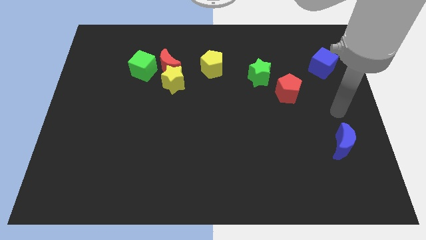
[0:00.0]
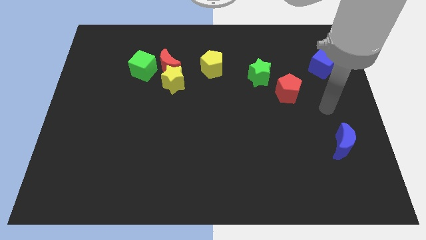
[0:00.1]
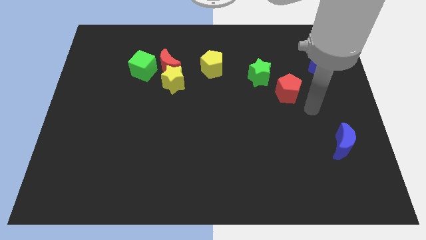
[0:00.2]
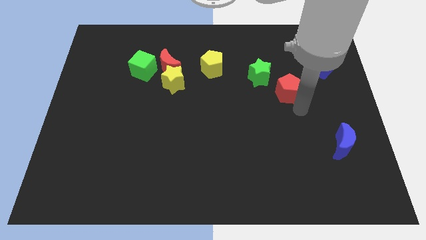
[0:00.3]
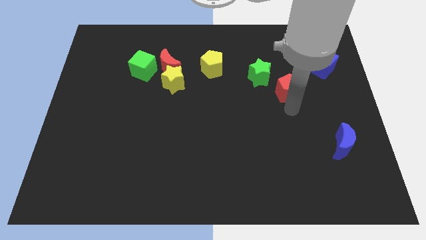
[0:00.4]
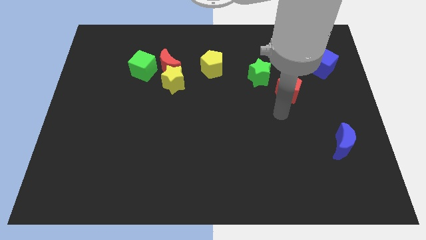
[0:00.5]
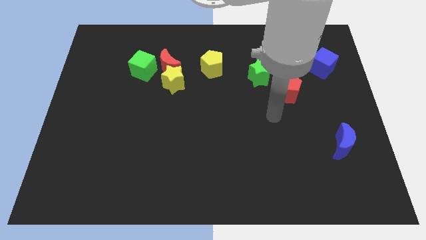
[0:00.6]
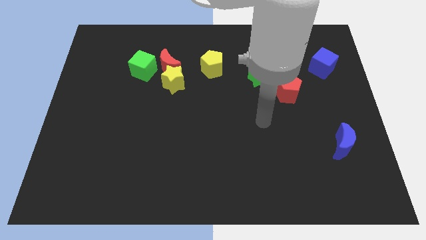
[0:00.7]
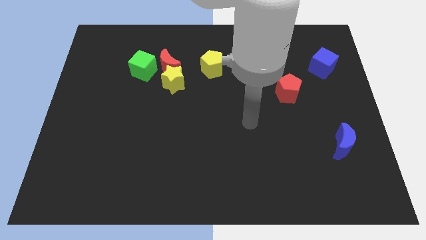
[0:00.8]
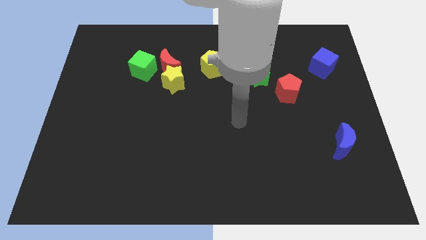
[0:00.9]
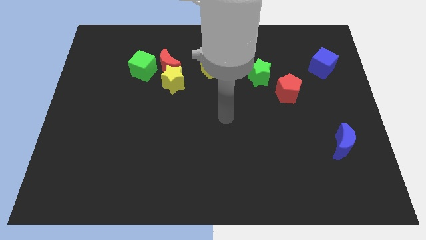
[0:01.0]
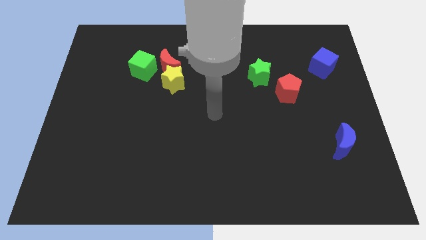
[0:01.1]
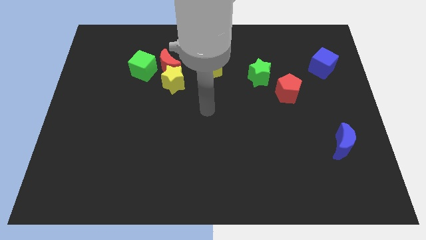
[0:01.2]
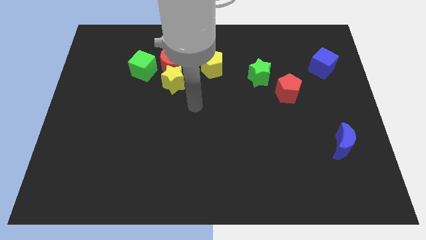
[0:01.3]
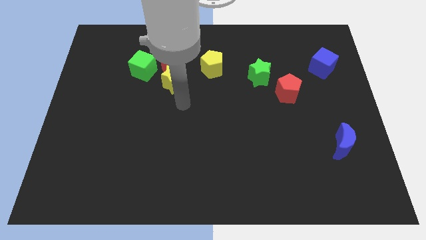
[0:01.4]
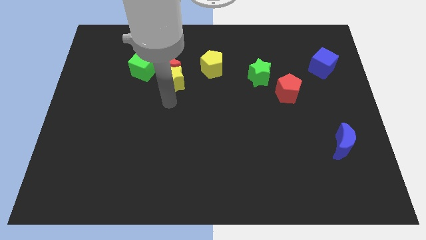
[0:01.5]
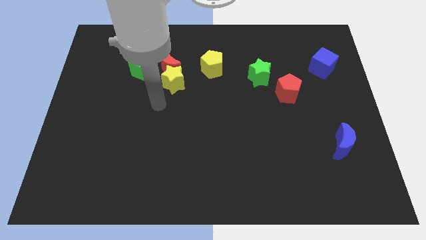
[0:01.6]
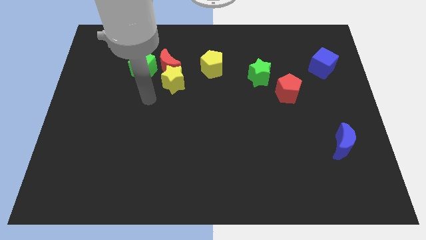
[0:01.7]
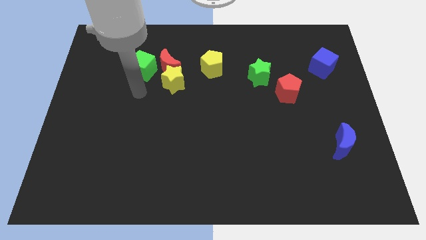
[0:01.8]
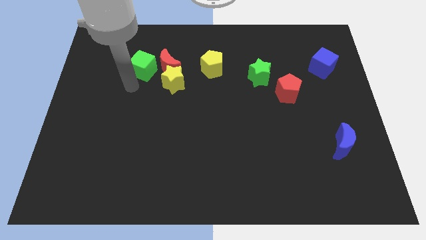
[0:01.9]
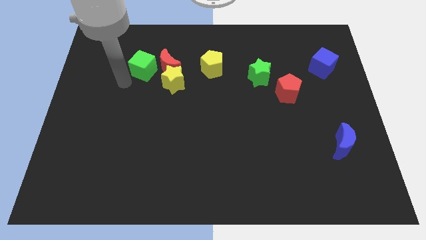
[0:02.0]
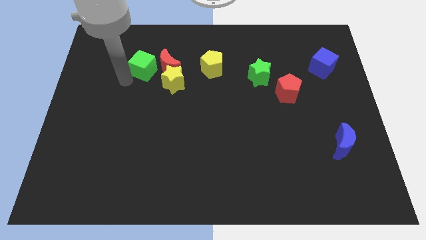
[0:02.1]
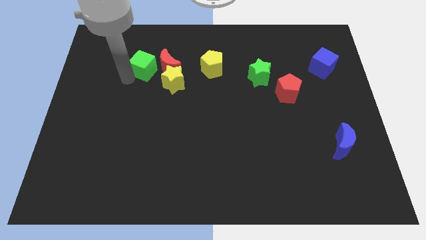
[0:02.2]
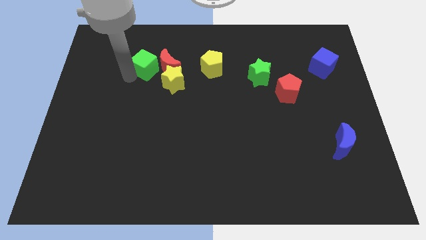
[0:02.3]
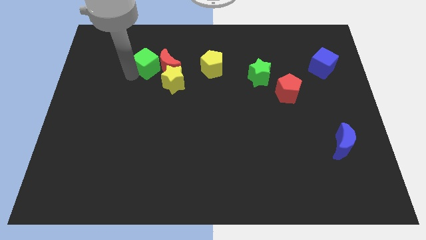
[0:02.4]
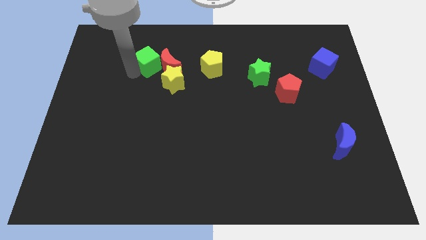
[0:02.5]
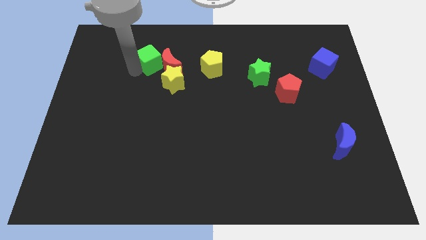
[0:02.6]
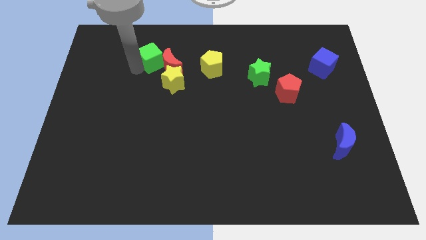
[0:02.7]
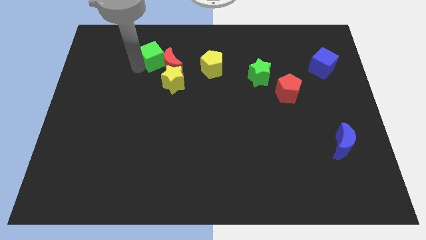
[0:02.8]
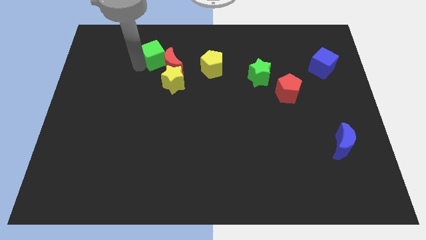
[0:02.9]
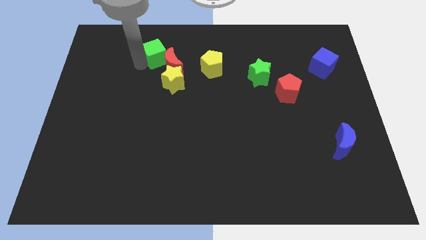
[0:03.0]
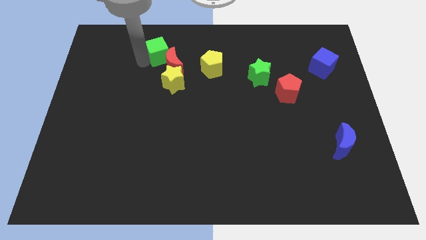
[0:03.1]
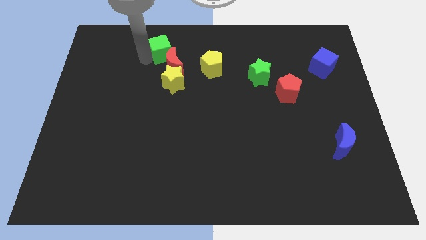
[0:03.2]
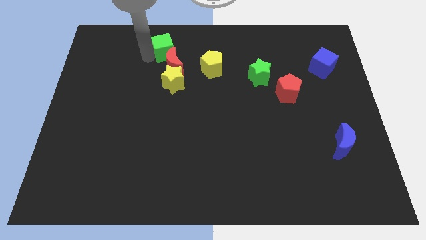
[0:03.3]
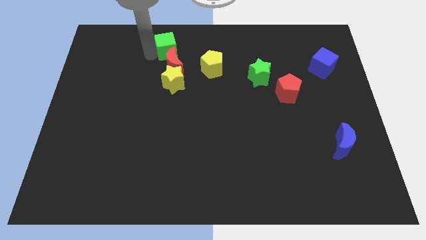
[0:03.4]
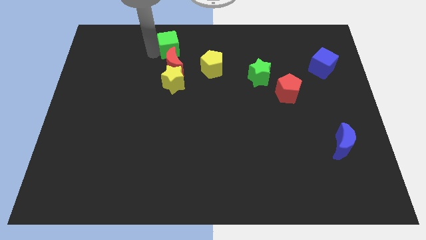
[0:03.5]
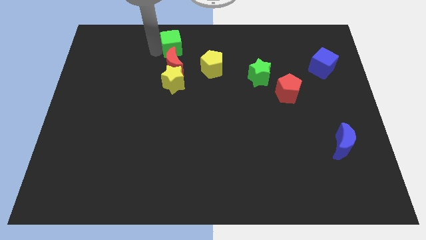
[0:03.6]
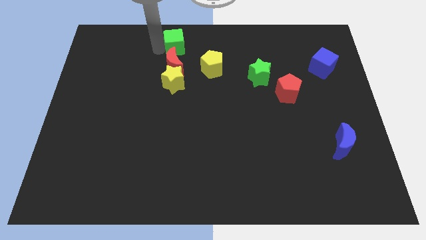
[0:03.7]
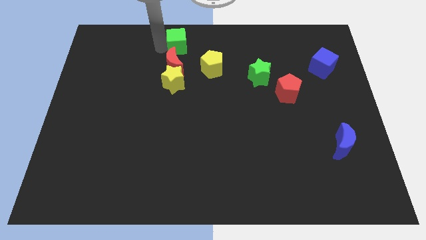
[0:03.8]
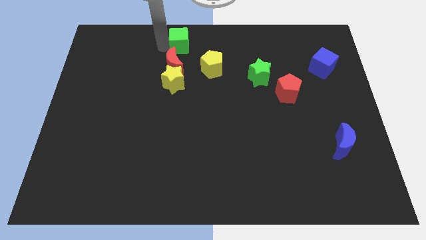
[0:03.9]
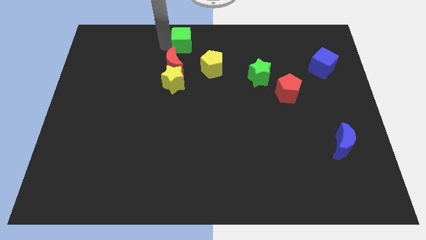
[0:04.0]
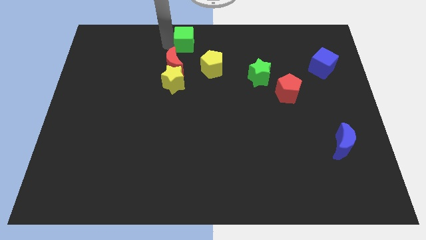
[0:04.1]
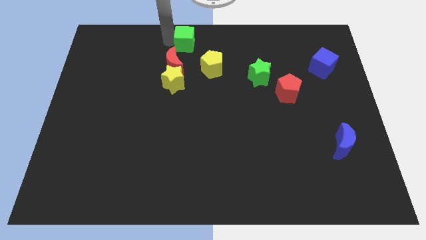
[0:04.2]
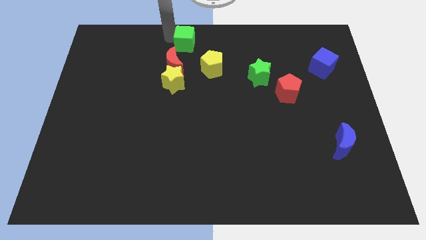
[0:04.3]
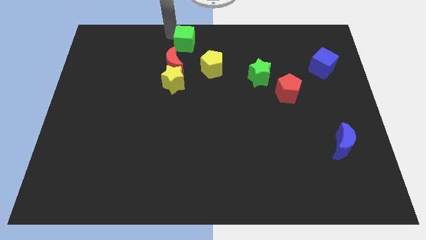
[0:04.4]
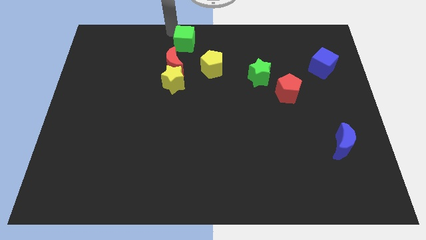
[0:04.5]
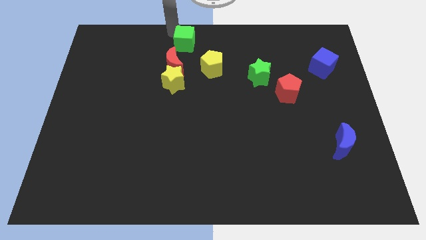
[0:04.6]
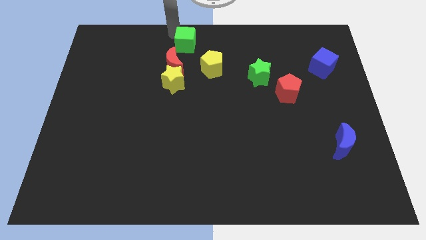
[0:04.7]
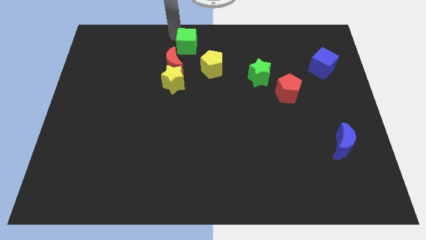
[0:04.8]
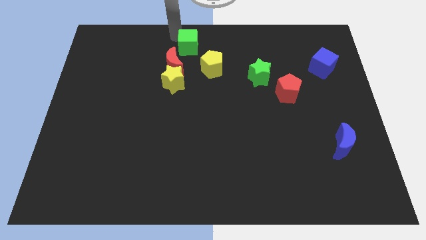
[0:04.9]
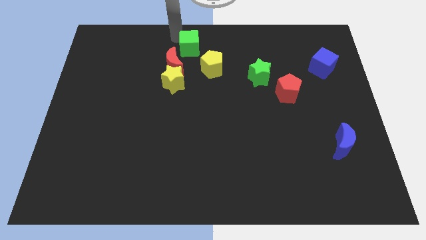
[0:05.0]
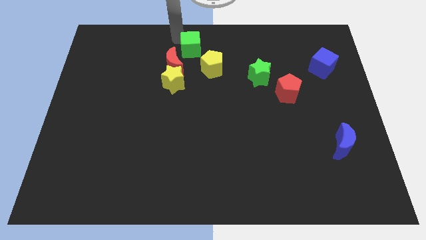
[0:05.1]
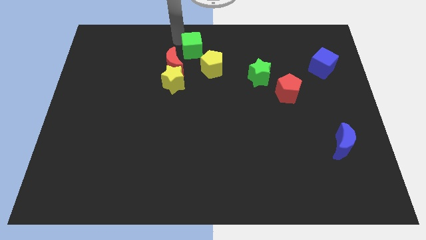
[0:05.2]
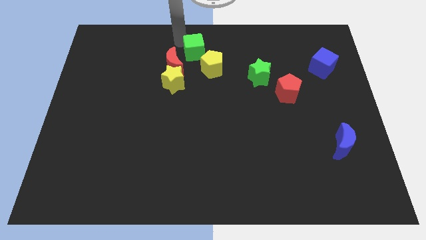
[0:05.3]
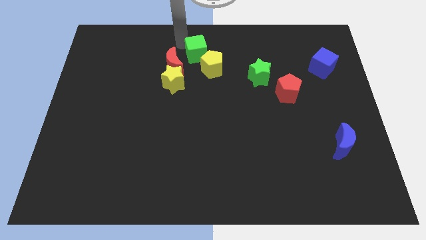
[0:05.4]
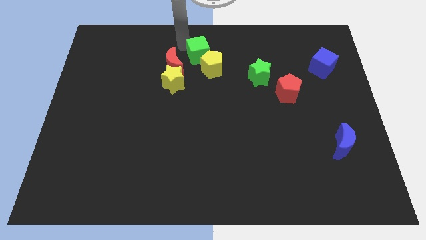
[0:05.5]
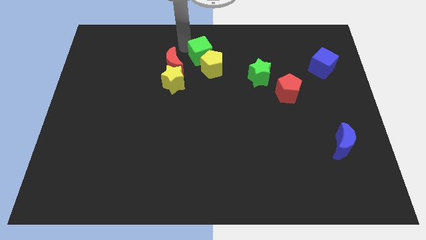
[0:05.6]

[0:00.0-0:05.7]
move the green cube to the yellow pentagon

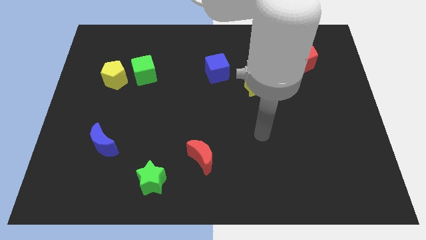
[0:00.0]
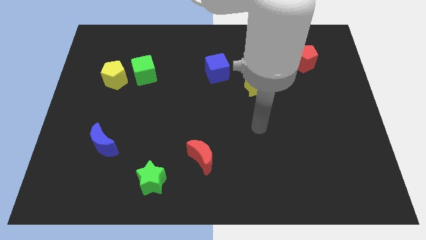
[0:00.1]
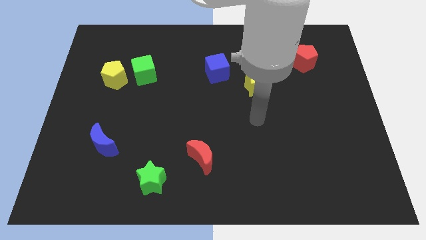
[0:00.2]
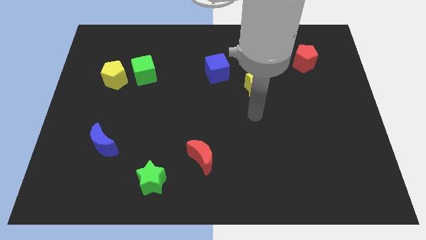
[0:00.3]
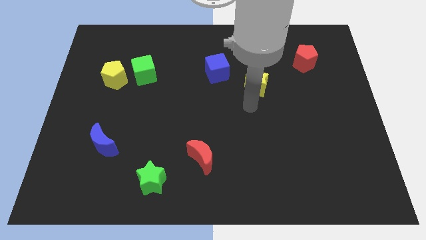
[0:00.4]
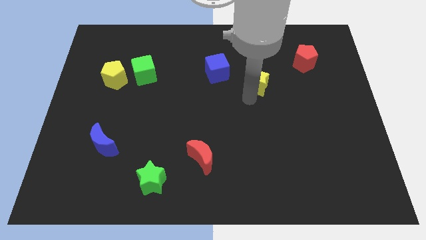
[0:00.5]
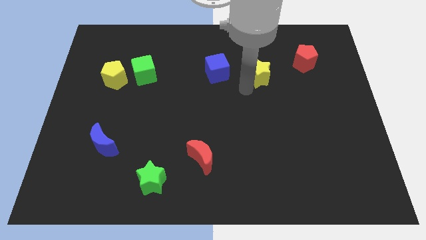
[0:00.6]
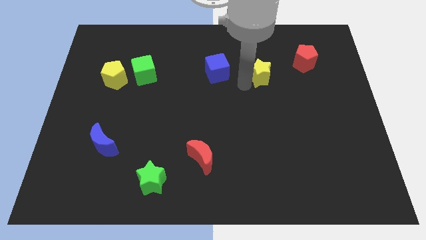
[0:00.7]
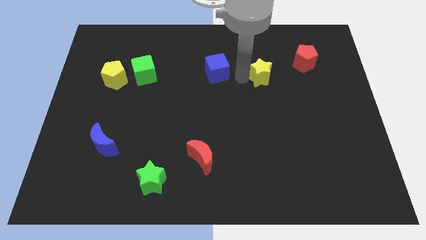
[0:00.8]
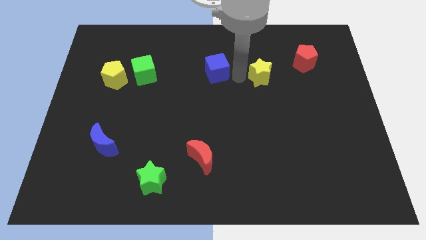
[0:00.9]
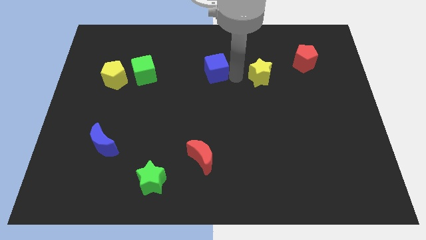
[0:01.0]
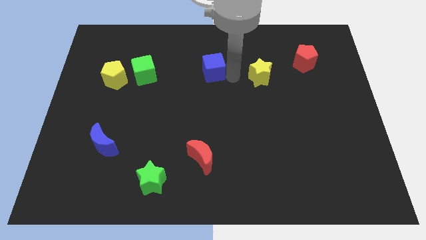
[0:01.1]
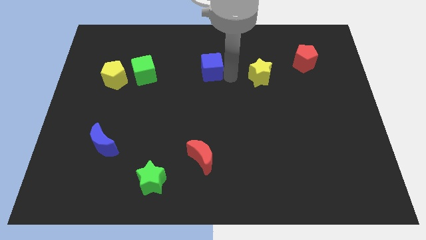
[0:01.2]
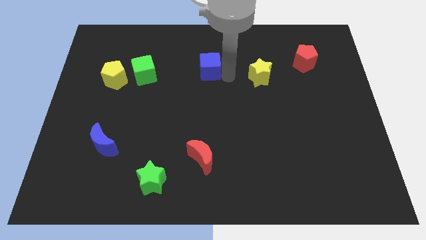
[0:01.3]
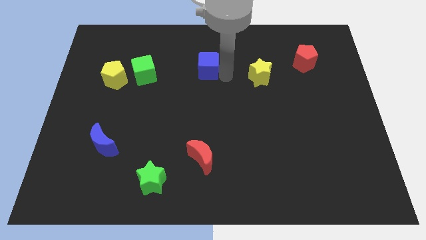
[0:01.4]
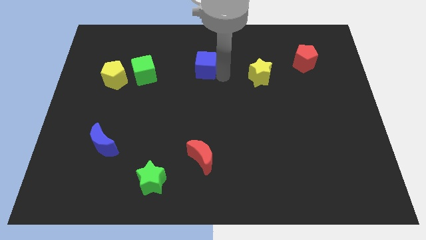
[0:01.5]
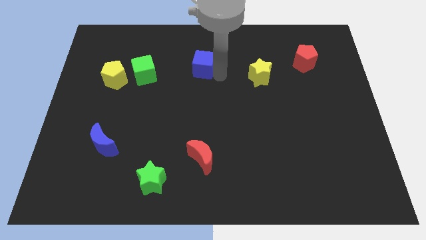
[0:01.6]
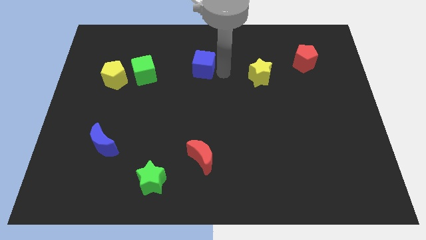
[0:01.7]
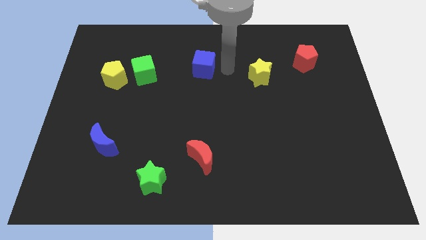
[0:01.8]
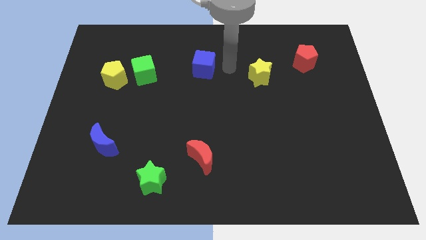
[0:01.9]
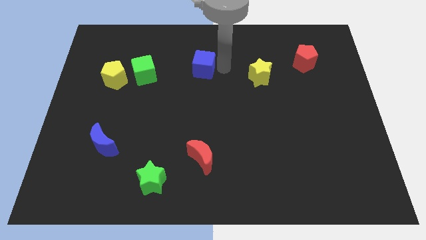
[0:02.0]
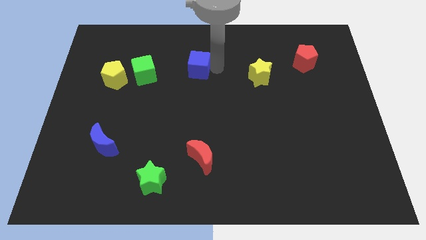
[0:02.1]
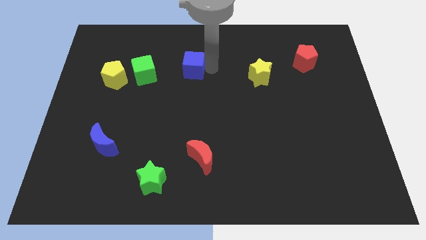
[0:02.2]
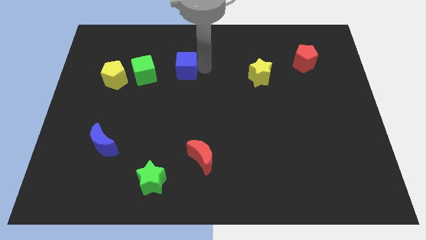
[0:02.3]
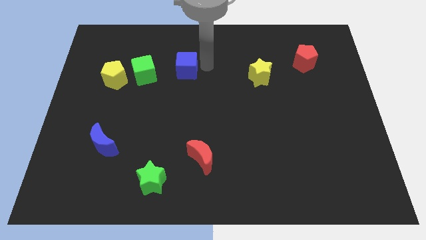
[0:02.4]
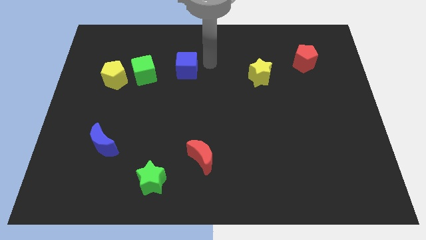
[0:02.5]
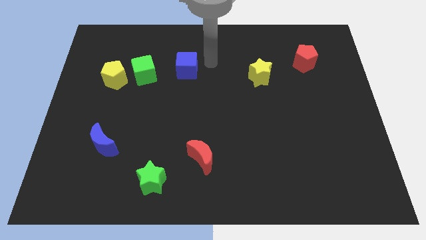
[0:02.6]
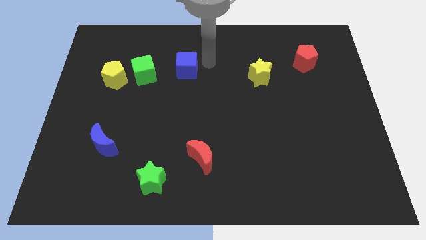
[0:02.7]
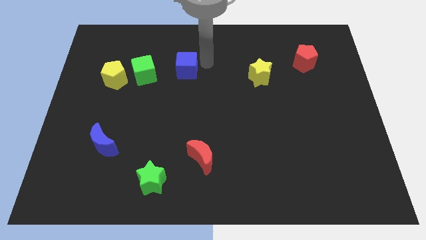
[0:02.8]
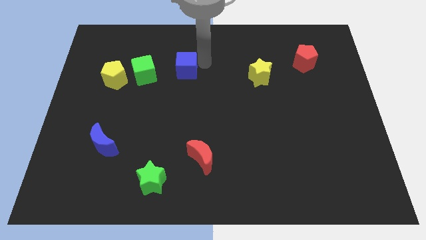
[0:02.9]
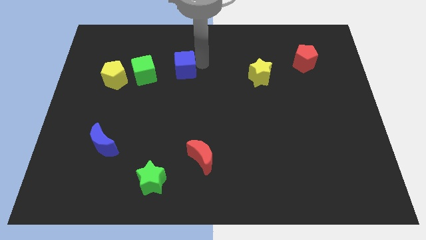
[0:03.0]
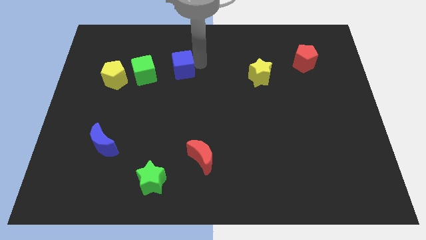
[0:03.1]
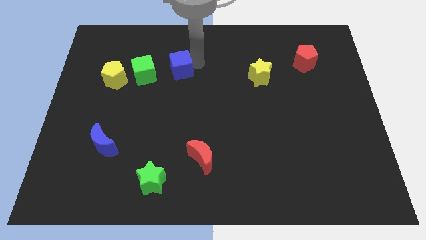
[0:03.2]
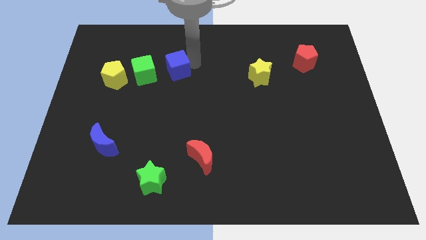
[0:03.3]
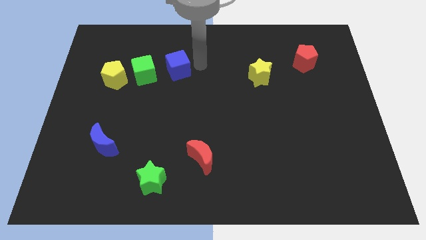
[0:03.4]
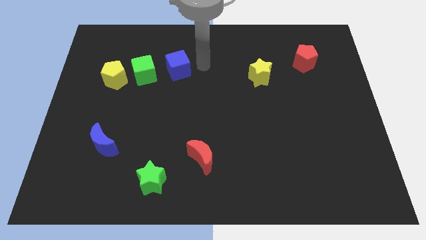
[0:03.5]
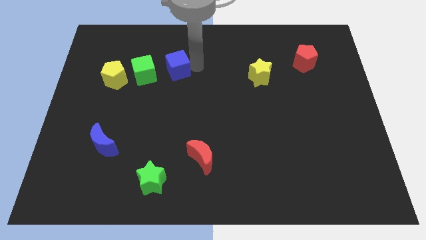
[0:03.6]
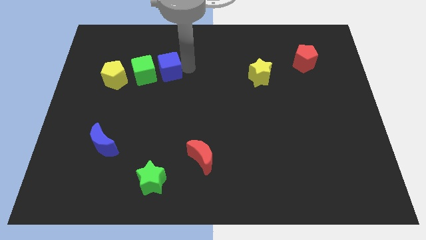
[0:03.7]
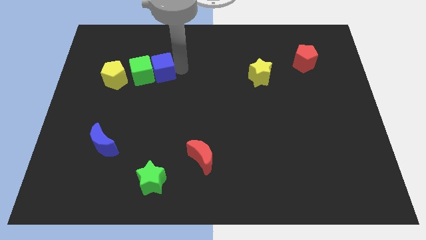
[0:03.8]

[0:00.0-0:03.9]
move the blue cube towards the green cube
